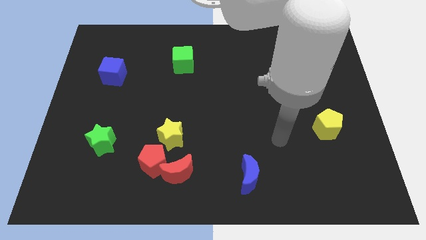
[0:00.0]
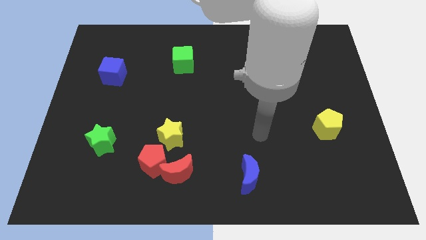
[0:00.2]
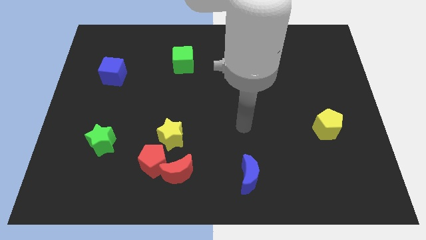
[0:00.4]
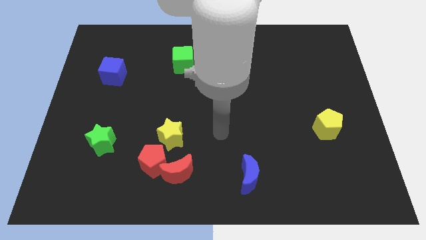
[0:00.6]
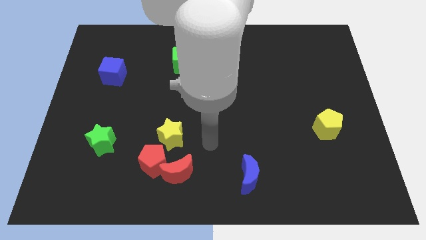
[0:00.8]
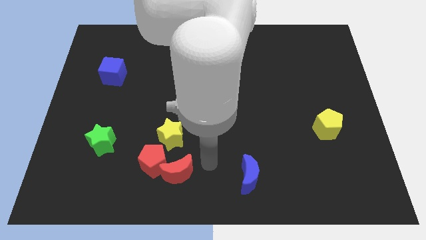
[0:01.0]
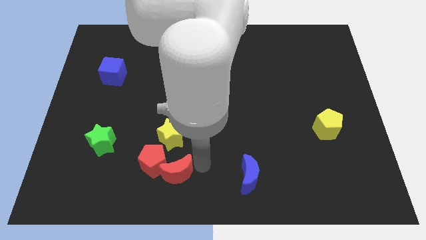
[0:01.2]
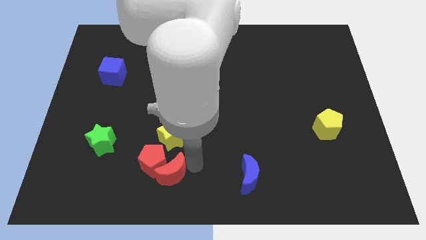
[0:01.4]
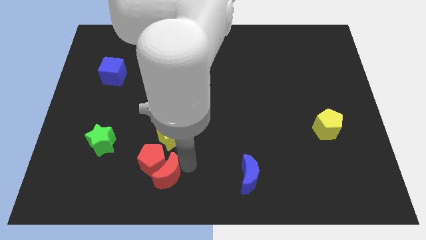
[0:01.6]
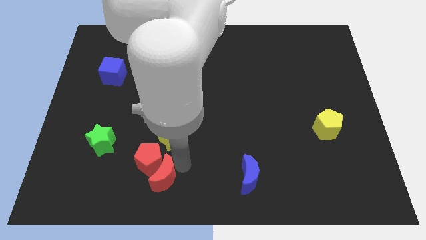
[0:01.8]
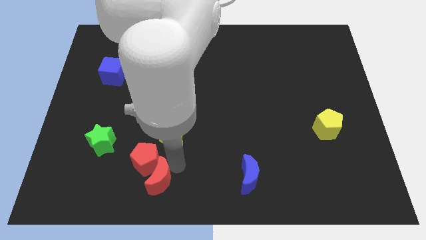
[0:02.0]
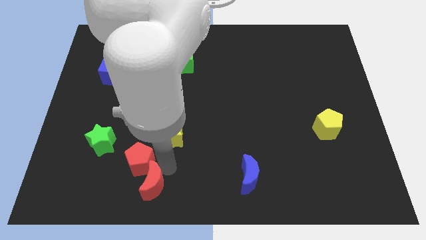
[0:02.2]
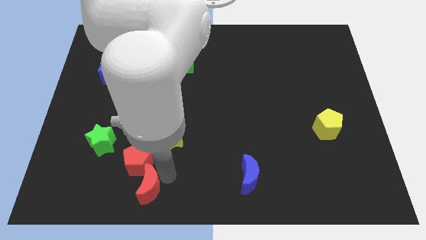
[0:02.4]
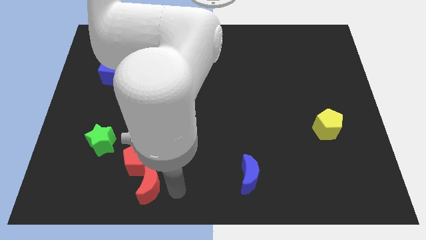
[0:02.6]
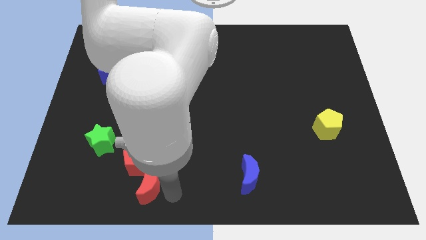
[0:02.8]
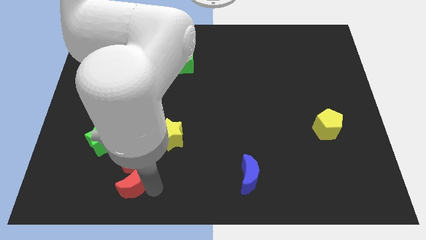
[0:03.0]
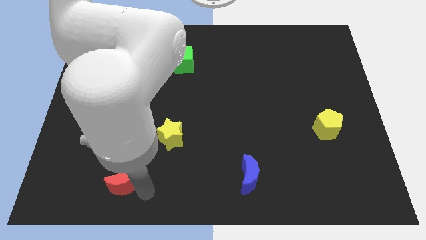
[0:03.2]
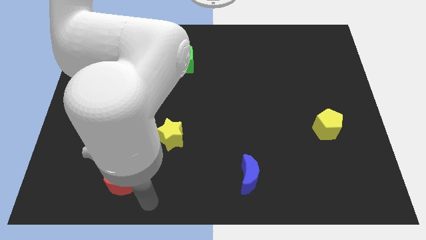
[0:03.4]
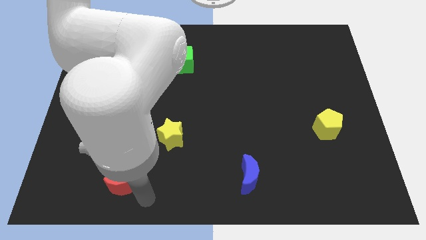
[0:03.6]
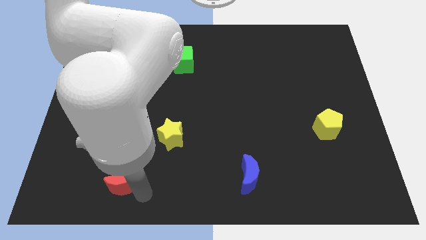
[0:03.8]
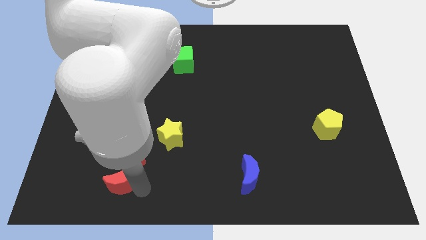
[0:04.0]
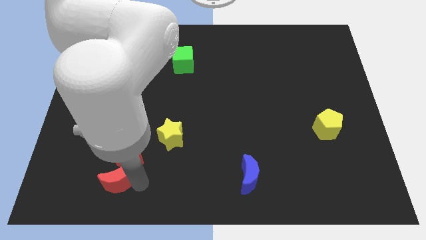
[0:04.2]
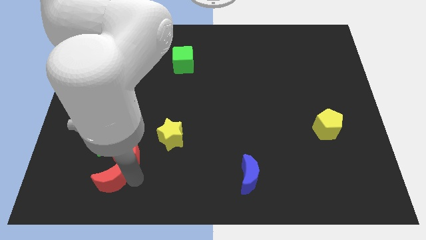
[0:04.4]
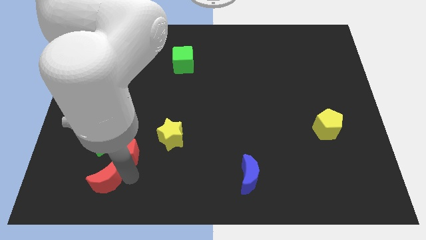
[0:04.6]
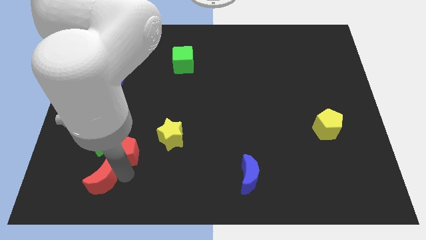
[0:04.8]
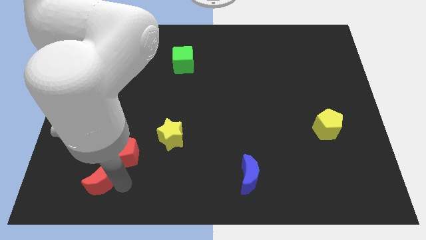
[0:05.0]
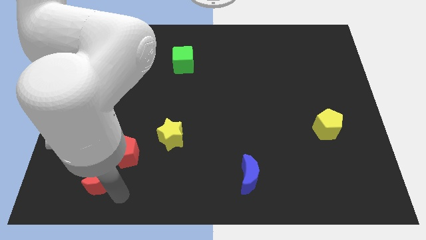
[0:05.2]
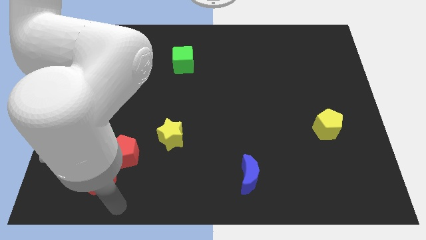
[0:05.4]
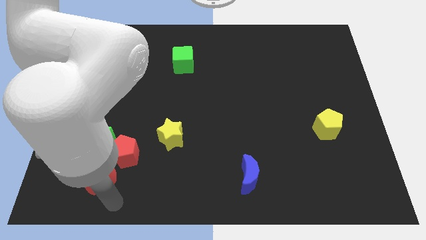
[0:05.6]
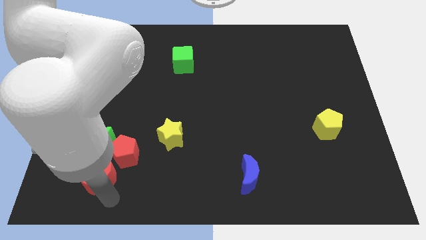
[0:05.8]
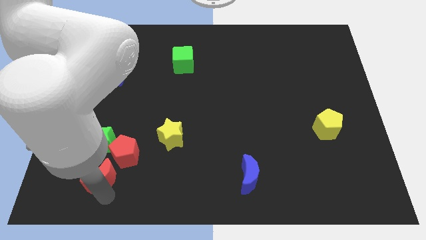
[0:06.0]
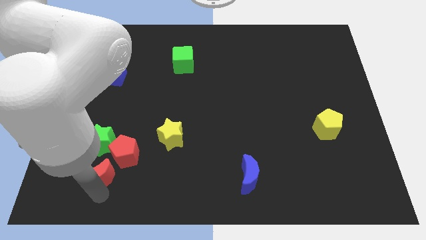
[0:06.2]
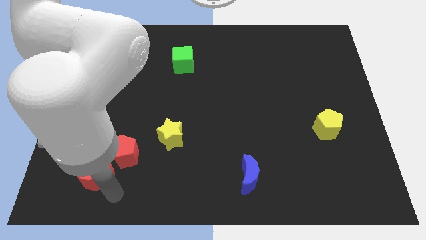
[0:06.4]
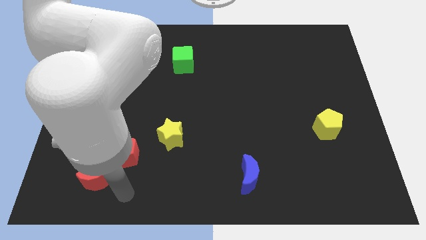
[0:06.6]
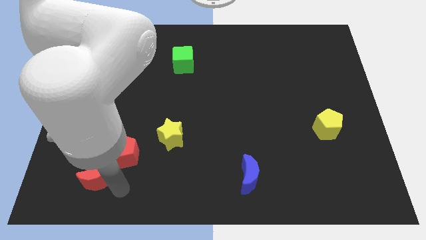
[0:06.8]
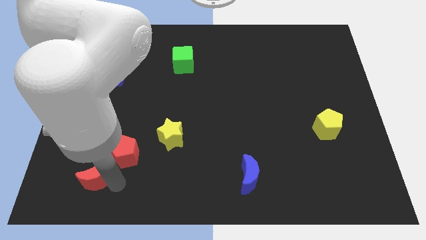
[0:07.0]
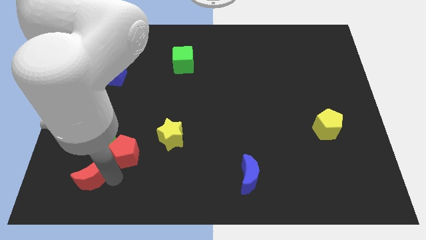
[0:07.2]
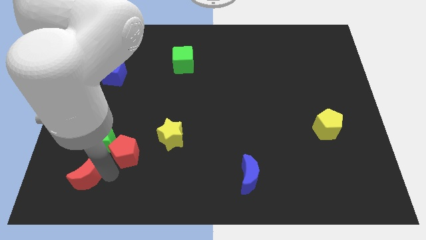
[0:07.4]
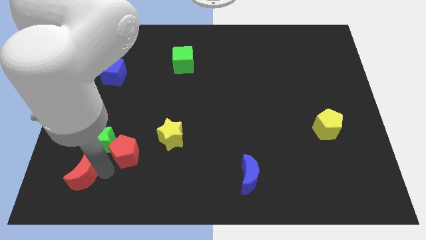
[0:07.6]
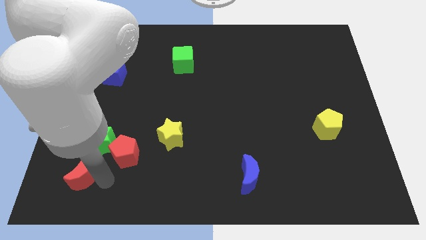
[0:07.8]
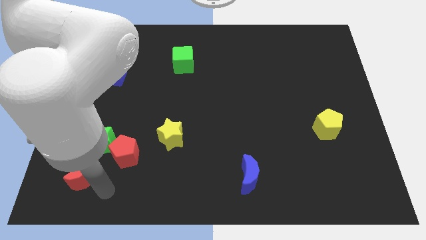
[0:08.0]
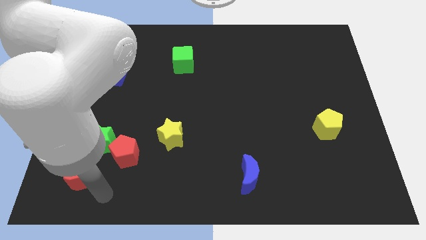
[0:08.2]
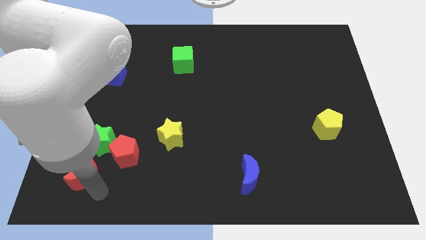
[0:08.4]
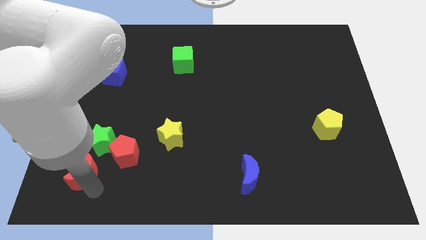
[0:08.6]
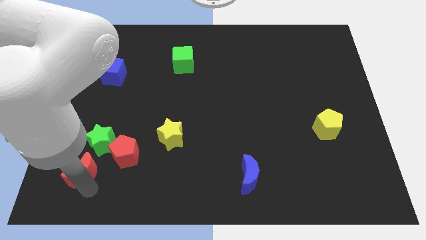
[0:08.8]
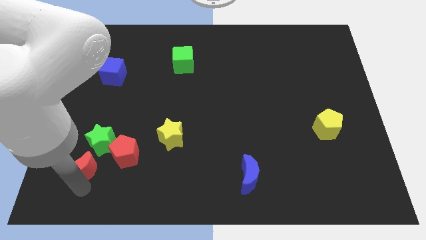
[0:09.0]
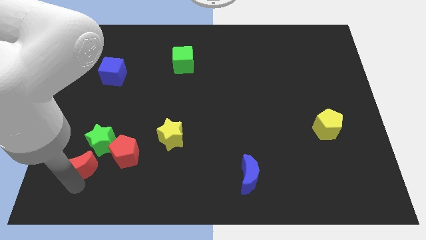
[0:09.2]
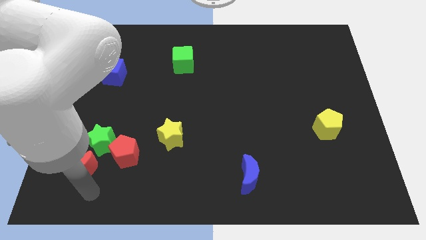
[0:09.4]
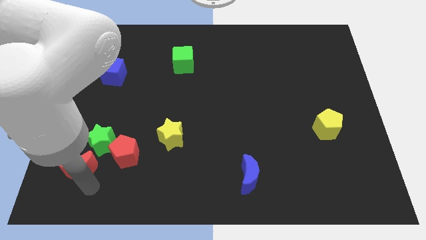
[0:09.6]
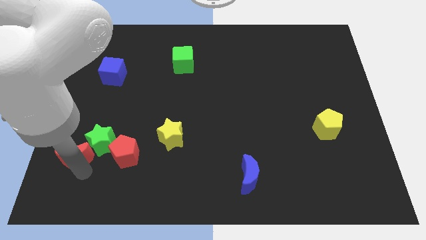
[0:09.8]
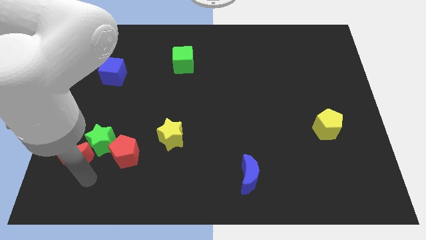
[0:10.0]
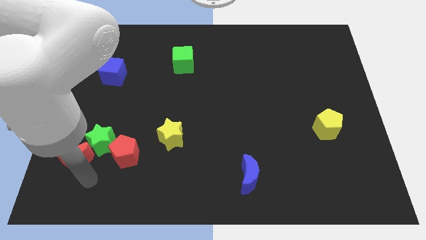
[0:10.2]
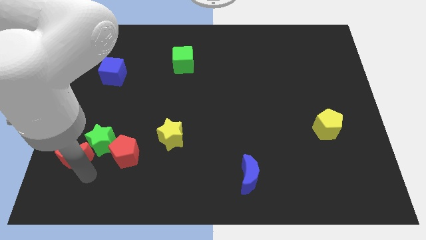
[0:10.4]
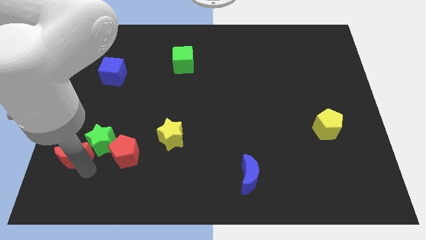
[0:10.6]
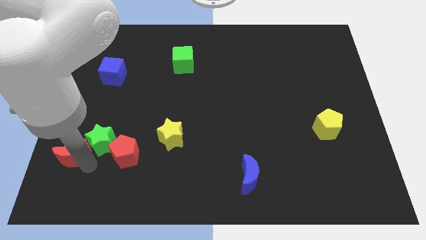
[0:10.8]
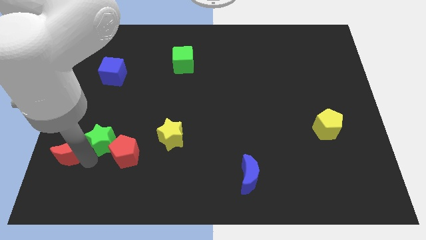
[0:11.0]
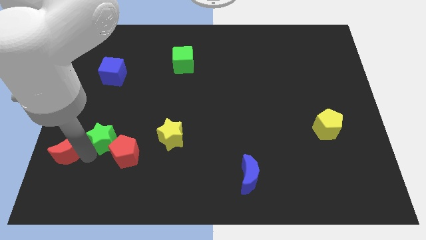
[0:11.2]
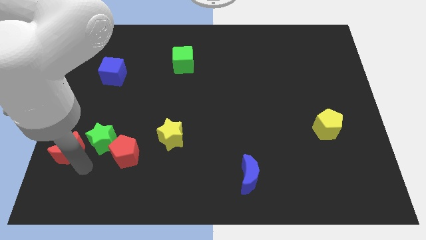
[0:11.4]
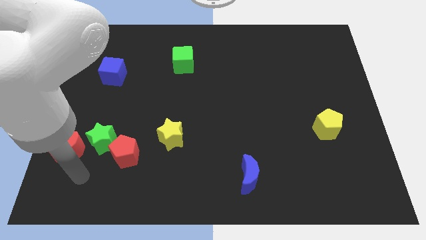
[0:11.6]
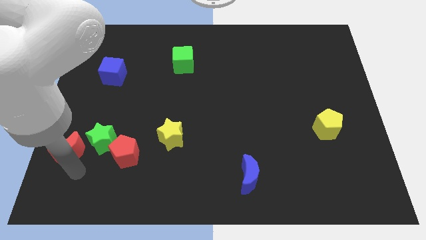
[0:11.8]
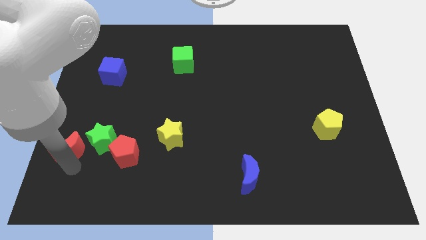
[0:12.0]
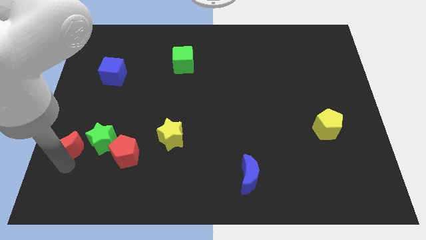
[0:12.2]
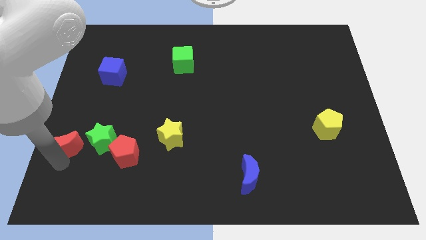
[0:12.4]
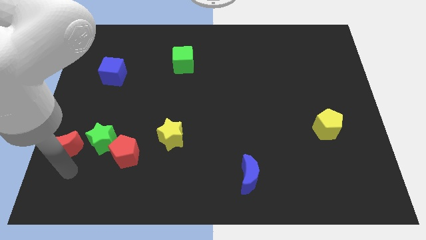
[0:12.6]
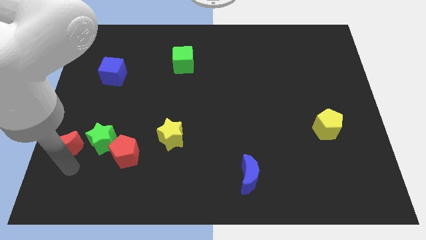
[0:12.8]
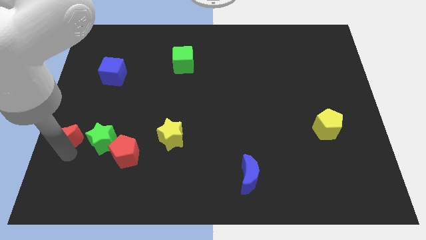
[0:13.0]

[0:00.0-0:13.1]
move the red moon to the left side of the board

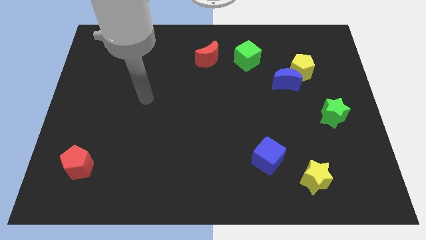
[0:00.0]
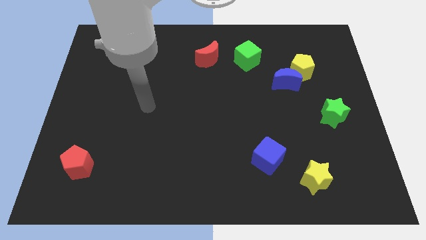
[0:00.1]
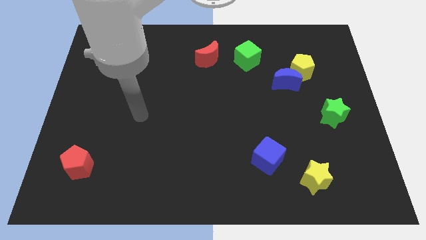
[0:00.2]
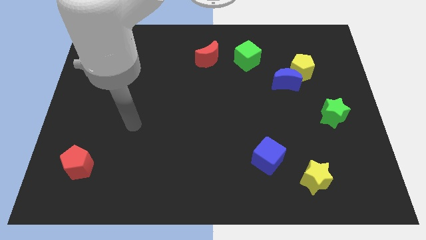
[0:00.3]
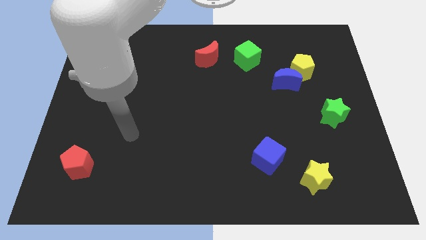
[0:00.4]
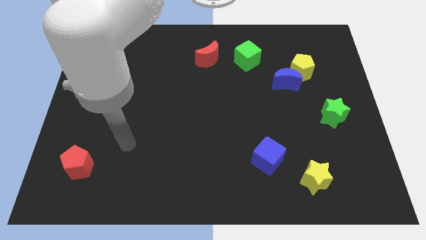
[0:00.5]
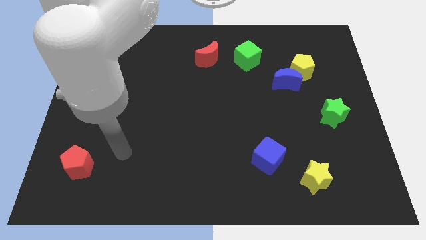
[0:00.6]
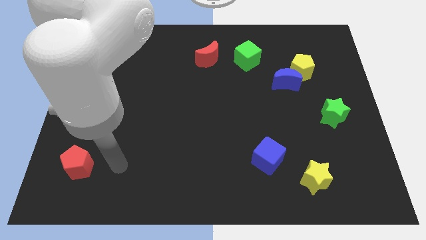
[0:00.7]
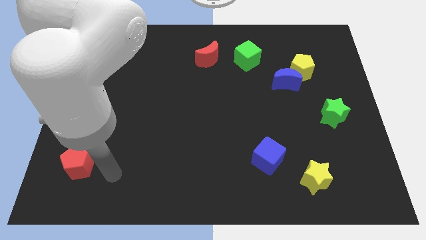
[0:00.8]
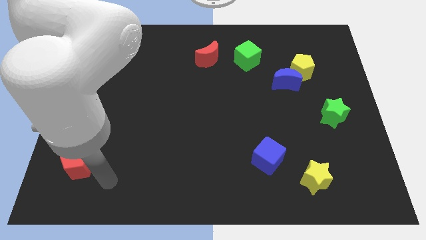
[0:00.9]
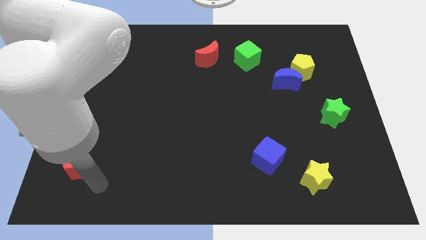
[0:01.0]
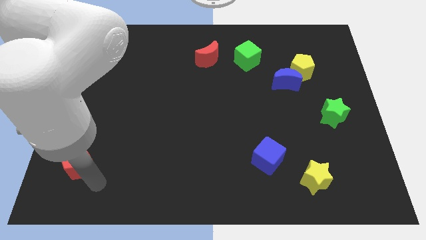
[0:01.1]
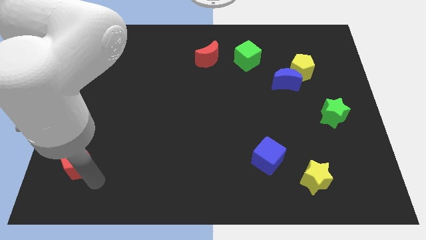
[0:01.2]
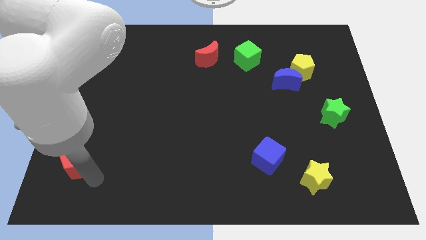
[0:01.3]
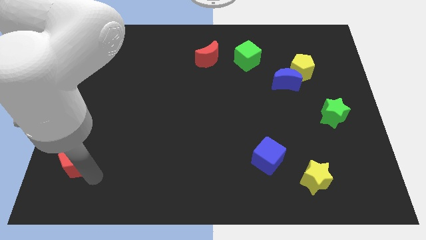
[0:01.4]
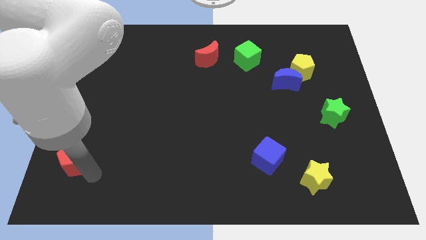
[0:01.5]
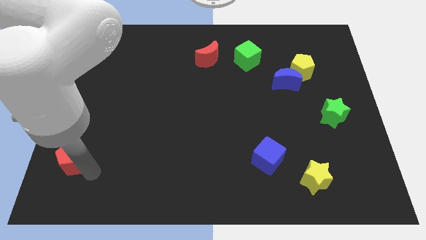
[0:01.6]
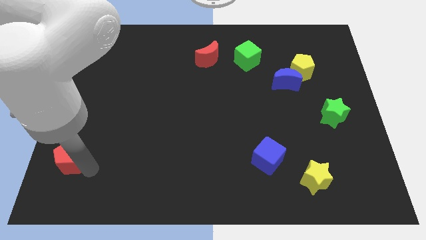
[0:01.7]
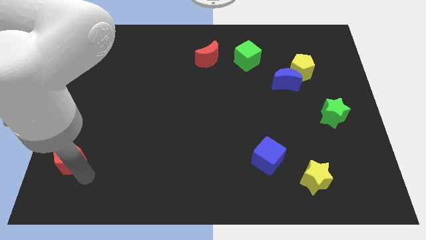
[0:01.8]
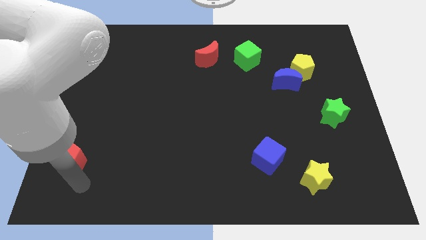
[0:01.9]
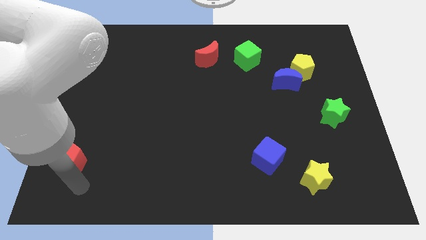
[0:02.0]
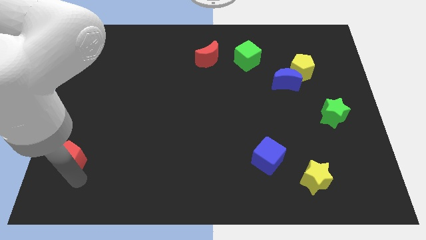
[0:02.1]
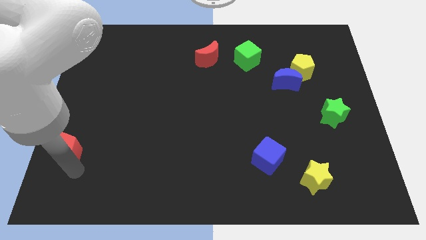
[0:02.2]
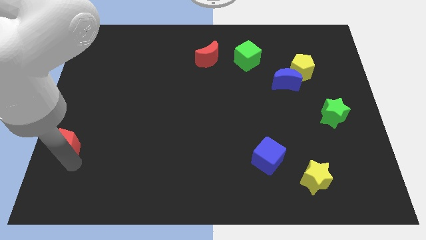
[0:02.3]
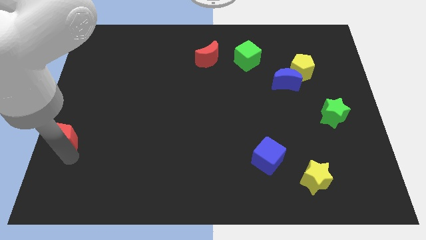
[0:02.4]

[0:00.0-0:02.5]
move the red pentagon to the left side of the board
